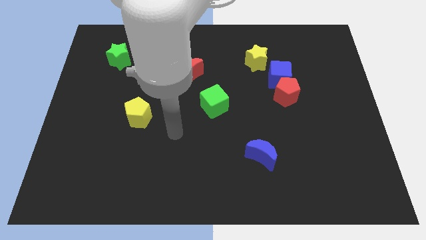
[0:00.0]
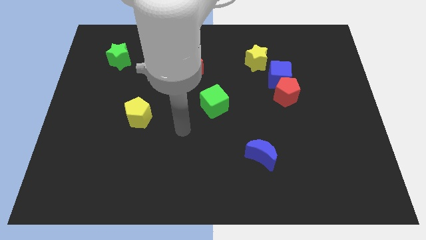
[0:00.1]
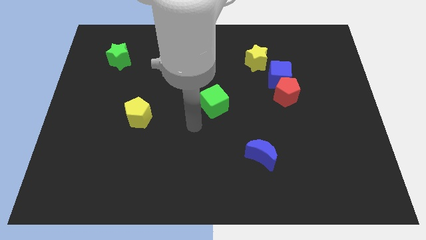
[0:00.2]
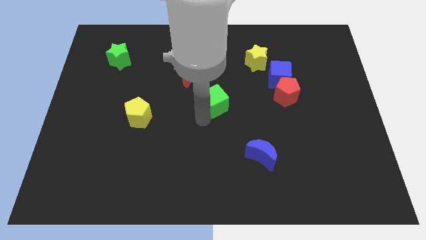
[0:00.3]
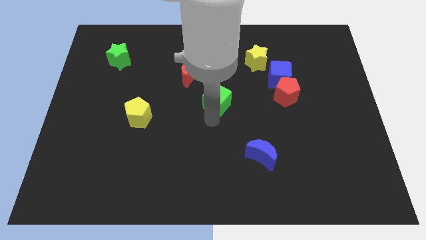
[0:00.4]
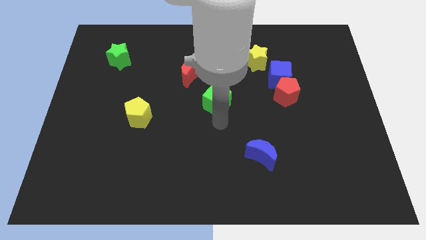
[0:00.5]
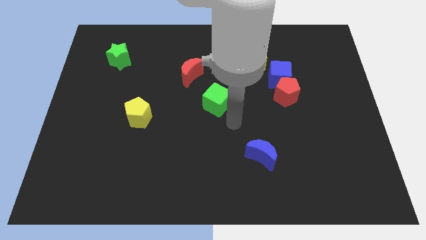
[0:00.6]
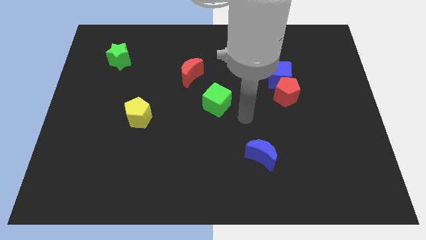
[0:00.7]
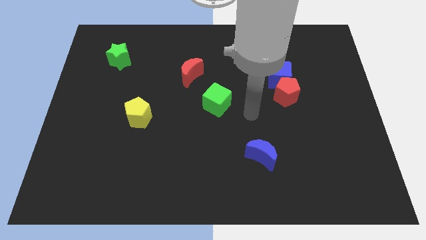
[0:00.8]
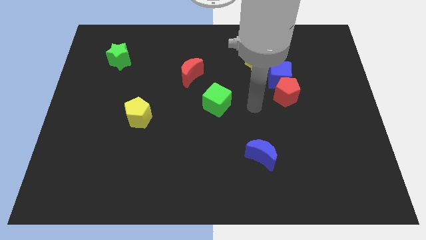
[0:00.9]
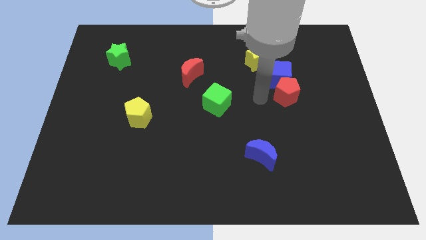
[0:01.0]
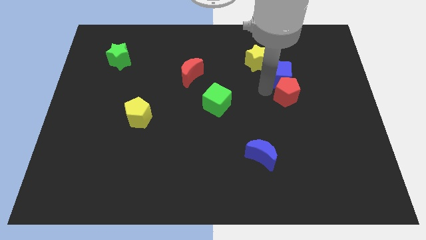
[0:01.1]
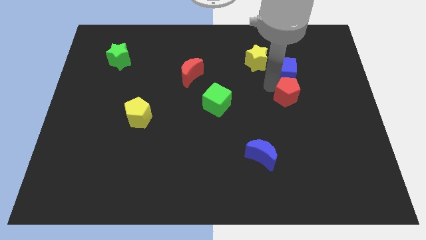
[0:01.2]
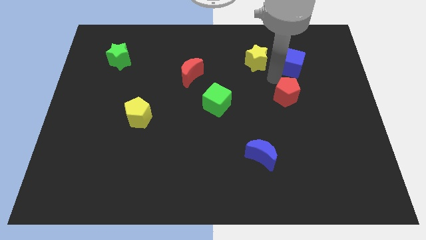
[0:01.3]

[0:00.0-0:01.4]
separate the red pentagon from the blue cube

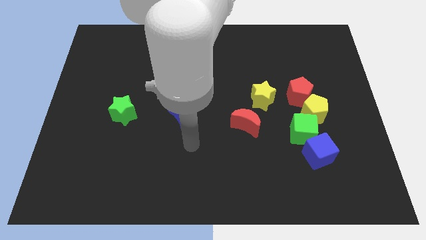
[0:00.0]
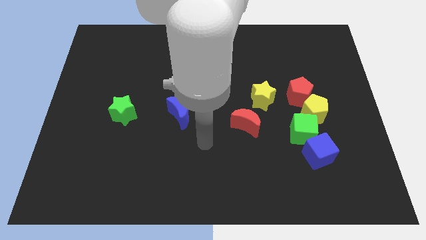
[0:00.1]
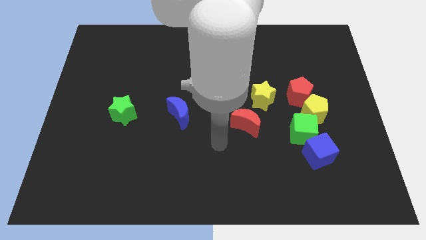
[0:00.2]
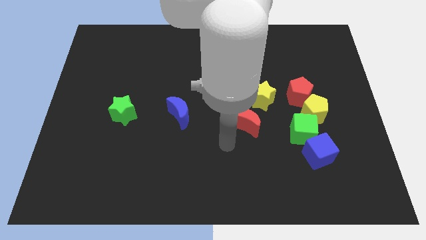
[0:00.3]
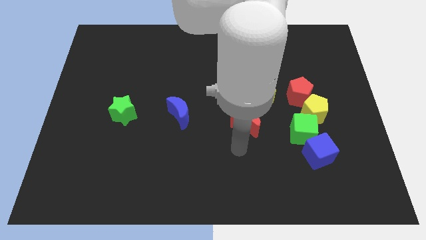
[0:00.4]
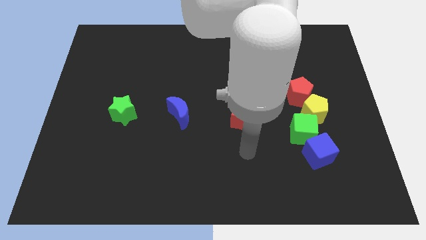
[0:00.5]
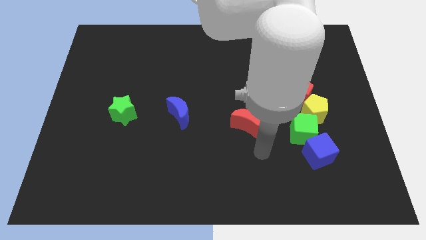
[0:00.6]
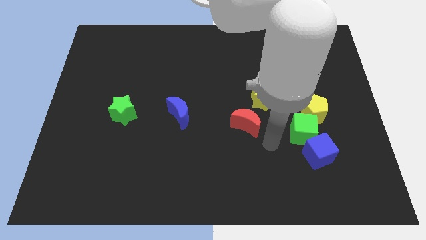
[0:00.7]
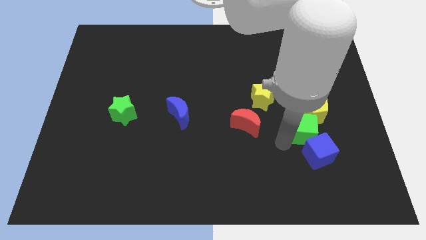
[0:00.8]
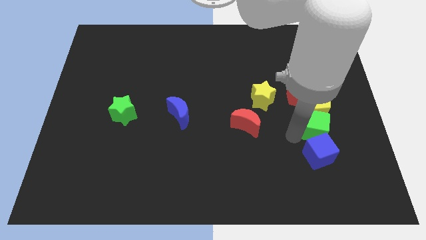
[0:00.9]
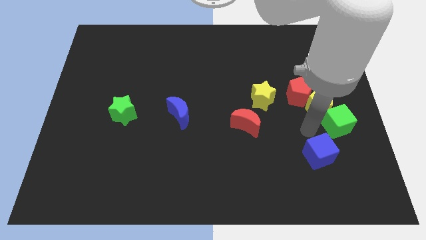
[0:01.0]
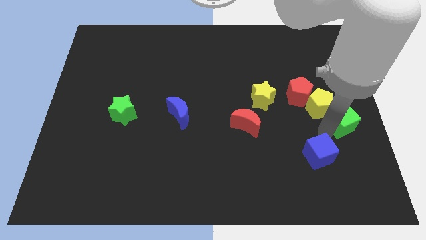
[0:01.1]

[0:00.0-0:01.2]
move the blue cube away from the green cube

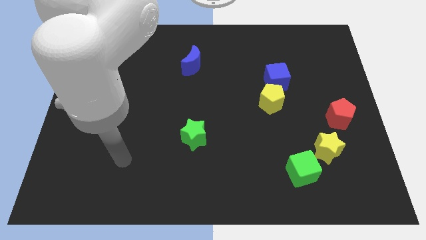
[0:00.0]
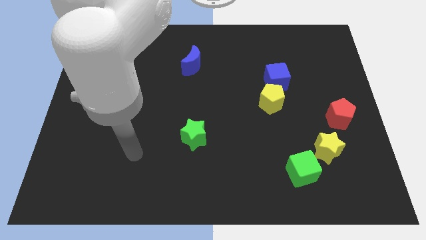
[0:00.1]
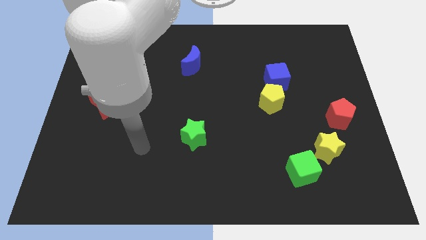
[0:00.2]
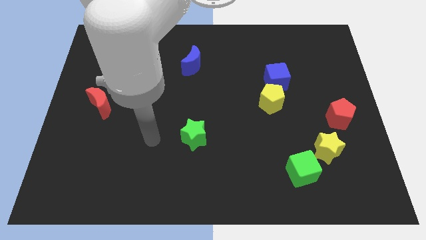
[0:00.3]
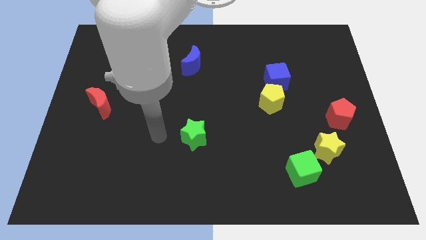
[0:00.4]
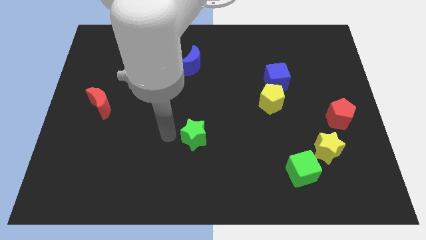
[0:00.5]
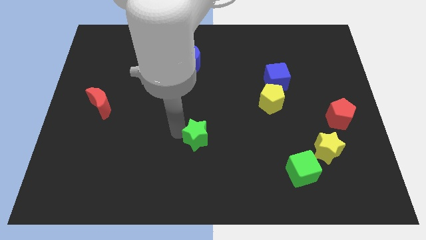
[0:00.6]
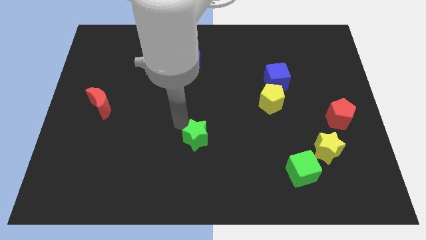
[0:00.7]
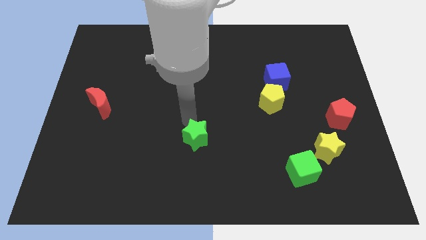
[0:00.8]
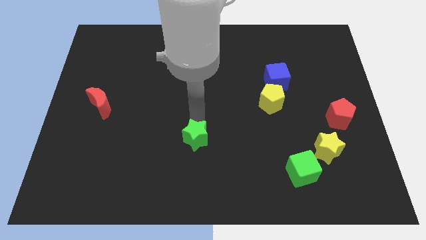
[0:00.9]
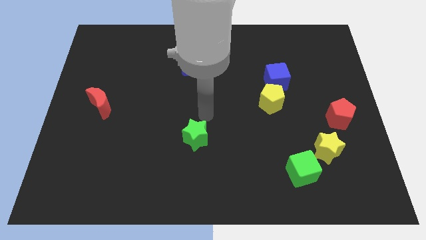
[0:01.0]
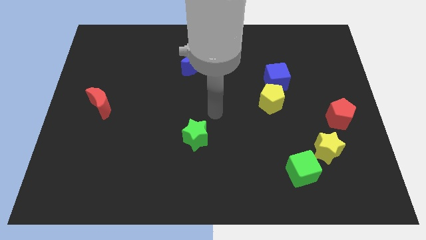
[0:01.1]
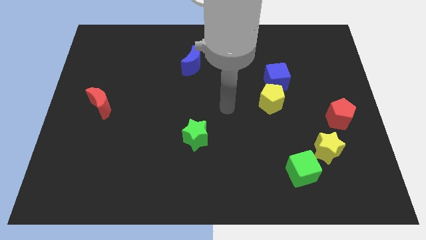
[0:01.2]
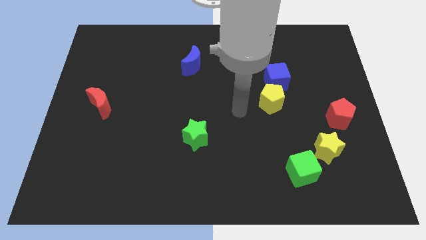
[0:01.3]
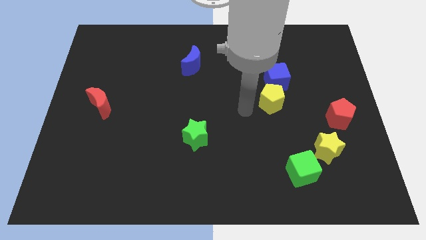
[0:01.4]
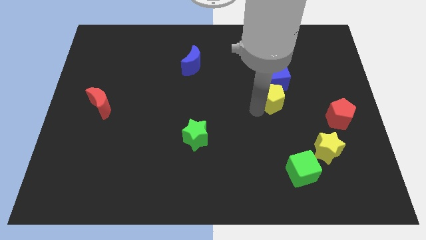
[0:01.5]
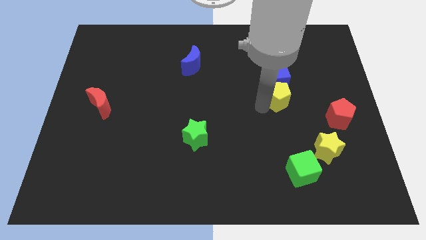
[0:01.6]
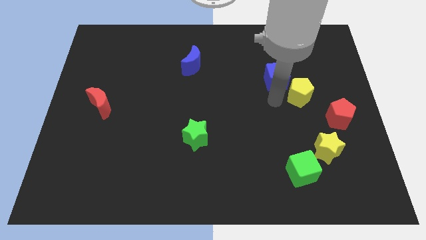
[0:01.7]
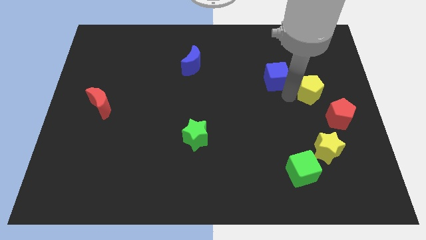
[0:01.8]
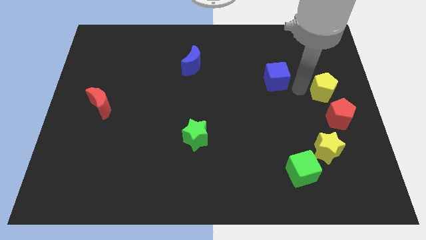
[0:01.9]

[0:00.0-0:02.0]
pull the blue cube apart from the yellow pentagon

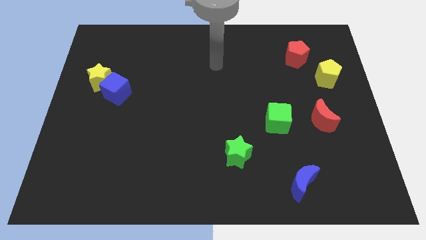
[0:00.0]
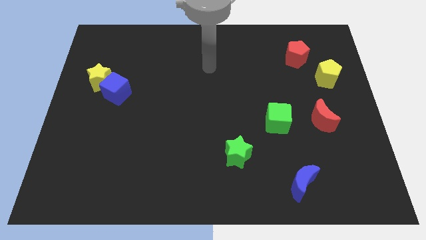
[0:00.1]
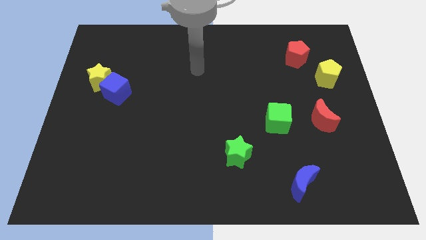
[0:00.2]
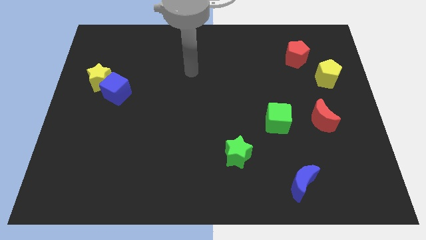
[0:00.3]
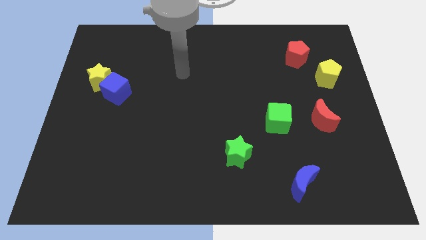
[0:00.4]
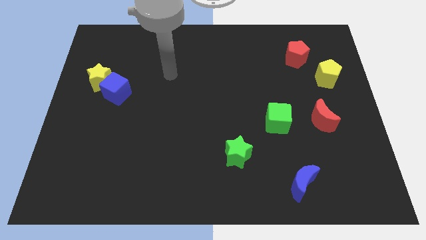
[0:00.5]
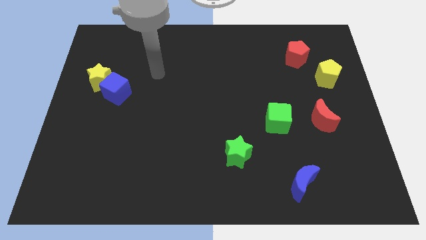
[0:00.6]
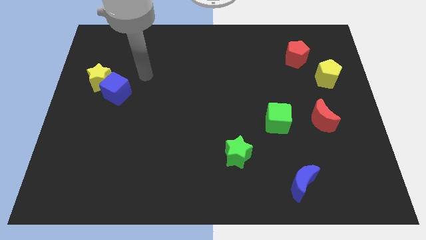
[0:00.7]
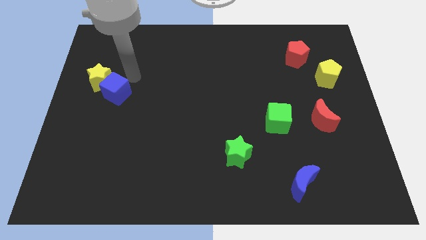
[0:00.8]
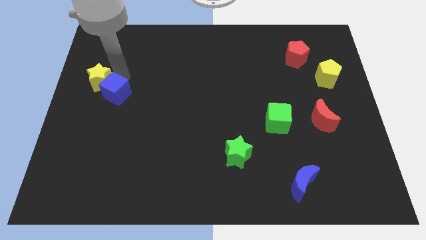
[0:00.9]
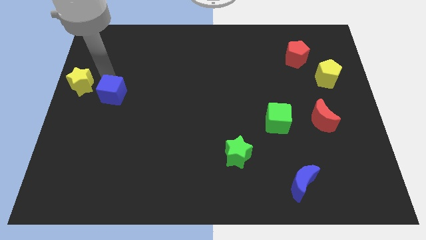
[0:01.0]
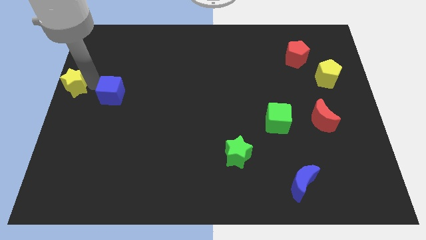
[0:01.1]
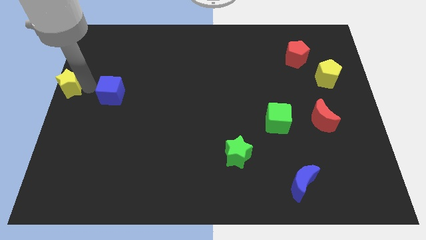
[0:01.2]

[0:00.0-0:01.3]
separate the blue cube from the yellow star

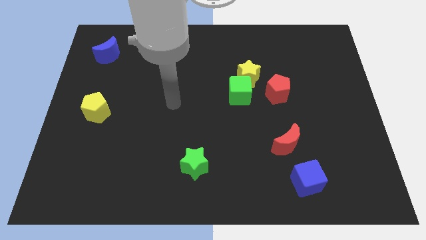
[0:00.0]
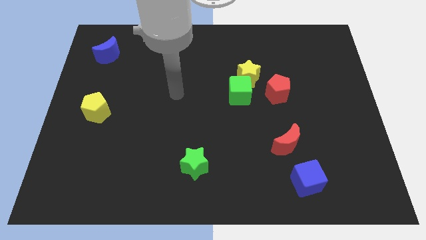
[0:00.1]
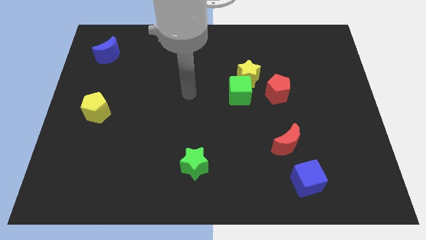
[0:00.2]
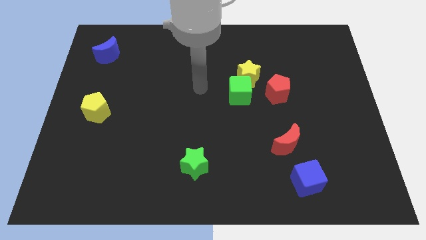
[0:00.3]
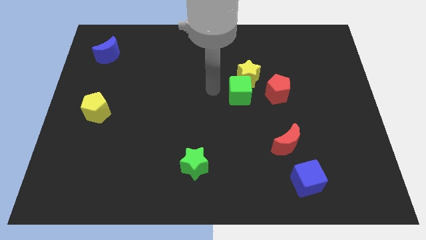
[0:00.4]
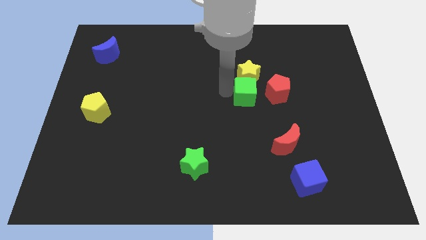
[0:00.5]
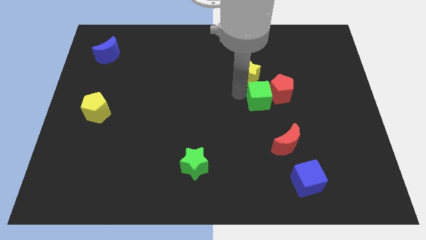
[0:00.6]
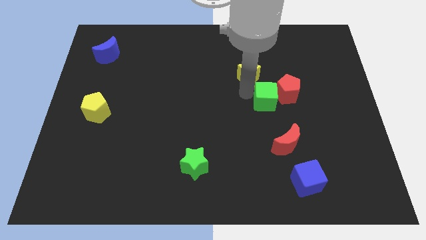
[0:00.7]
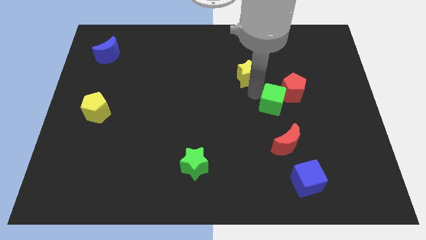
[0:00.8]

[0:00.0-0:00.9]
move the yellow star away from the green cube and red pentagon

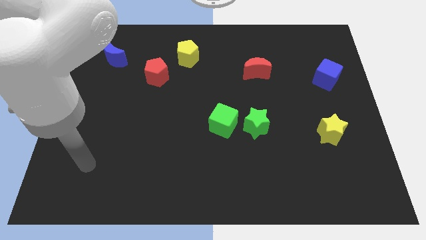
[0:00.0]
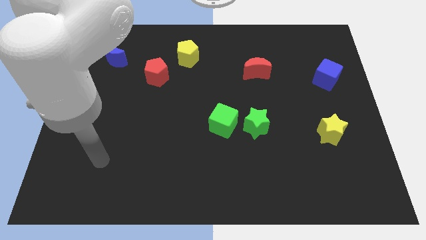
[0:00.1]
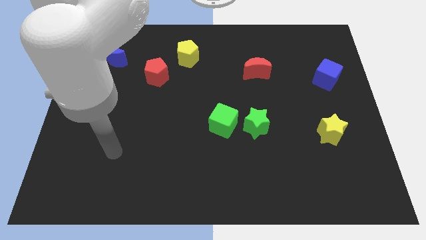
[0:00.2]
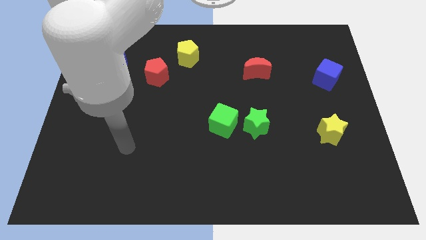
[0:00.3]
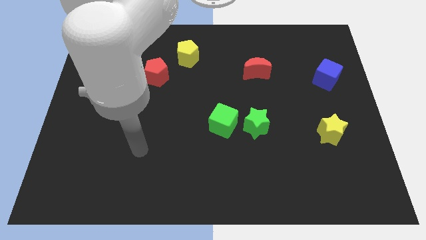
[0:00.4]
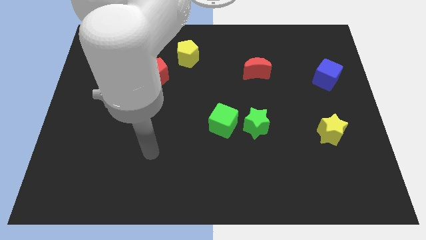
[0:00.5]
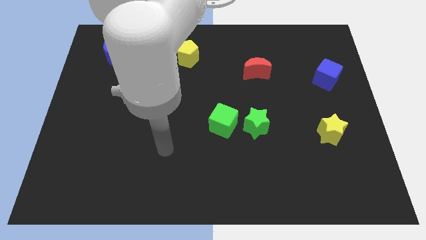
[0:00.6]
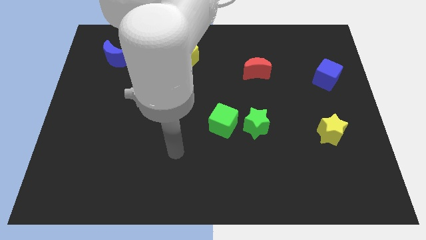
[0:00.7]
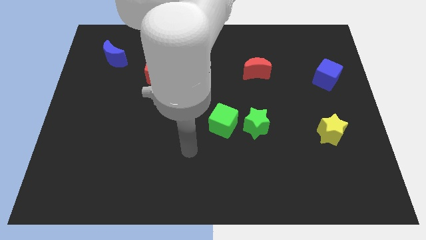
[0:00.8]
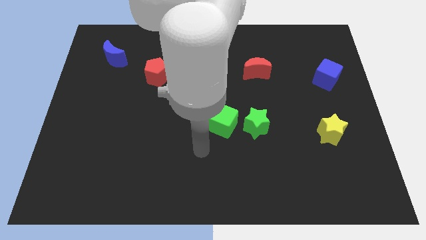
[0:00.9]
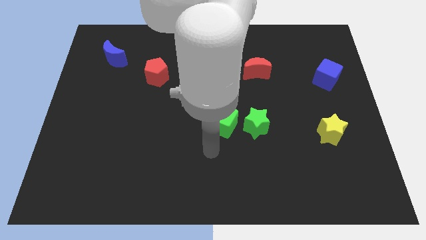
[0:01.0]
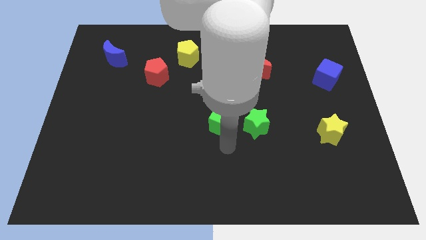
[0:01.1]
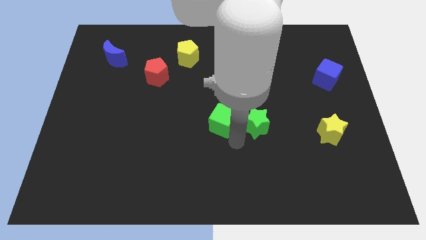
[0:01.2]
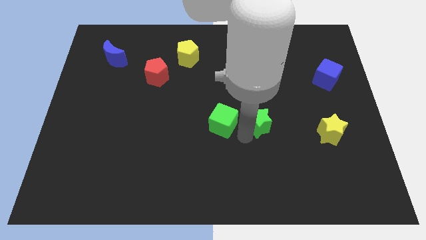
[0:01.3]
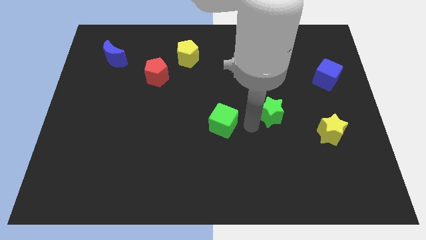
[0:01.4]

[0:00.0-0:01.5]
move the green cube away from the green star

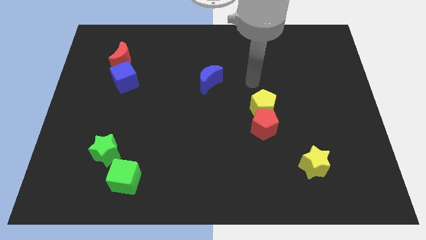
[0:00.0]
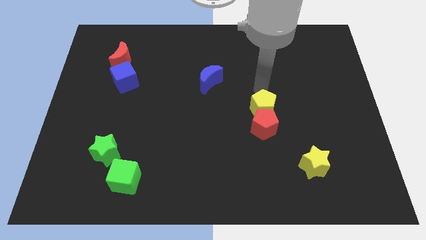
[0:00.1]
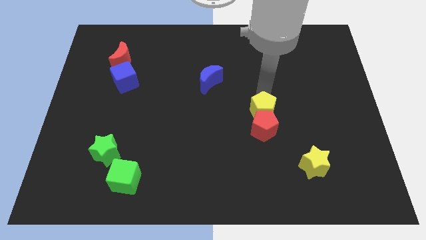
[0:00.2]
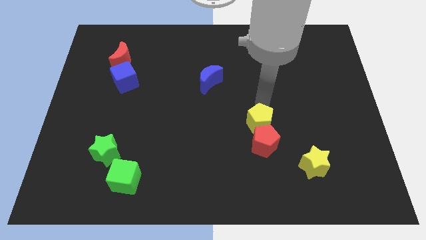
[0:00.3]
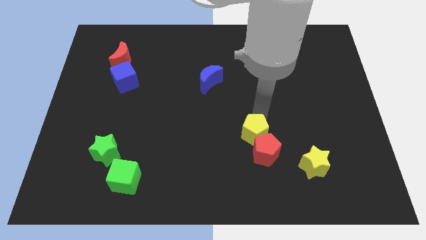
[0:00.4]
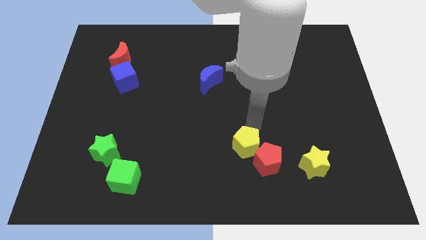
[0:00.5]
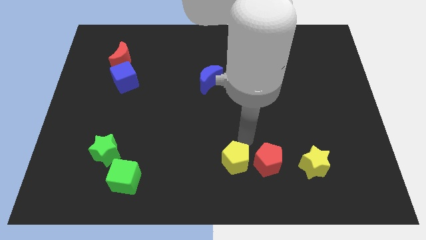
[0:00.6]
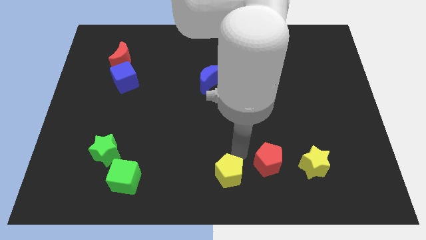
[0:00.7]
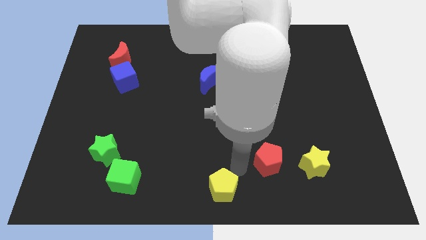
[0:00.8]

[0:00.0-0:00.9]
separate the red pentagon from the yellow pentagon

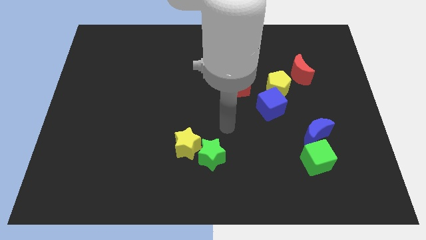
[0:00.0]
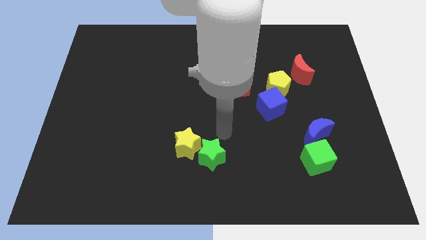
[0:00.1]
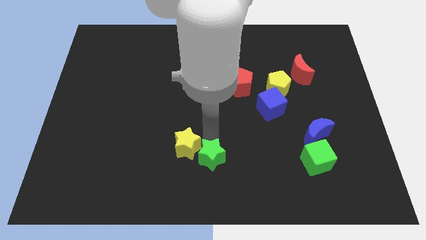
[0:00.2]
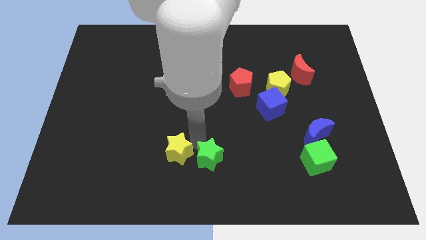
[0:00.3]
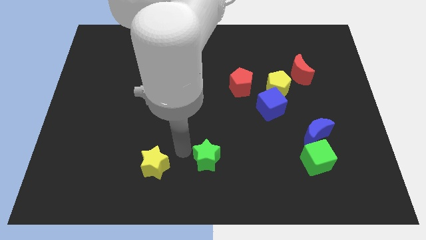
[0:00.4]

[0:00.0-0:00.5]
move the green star away from the yellow star
